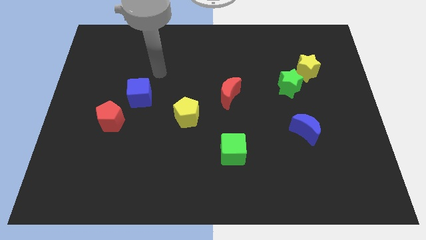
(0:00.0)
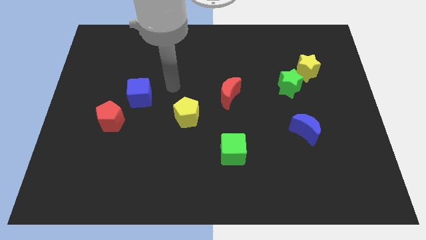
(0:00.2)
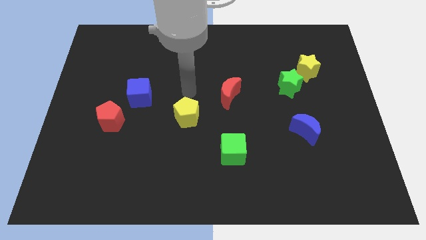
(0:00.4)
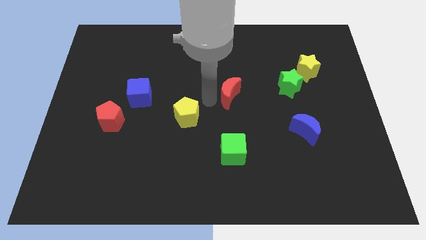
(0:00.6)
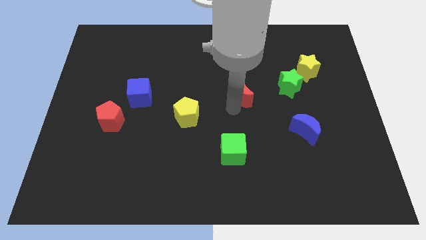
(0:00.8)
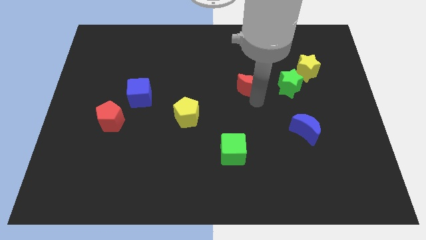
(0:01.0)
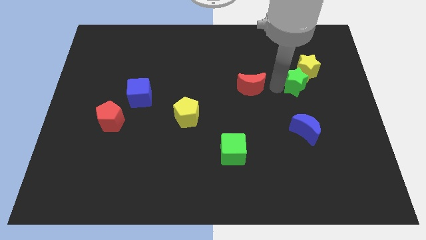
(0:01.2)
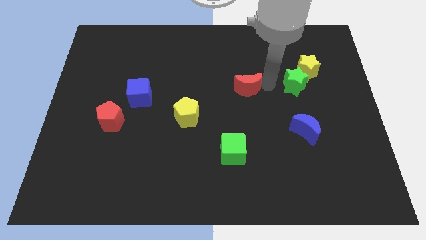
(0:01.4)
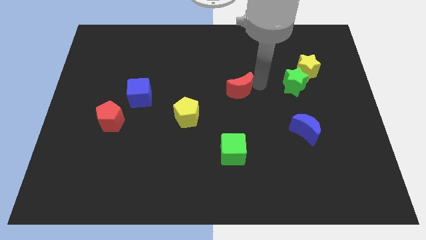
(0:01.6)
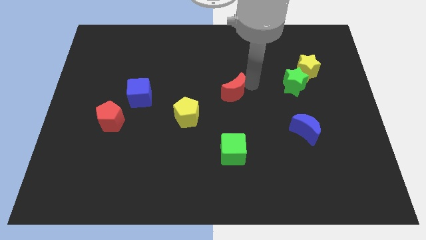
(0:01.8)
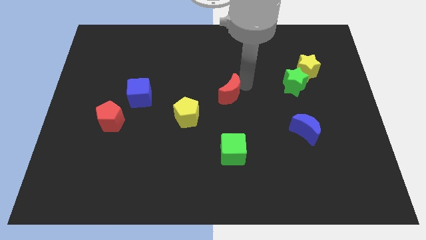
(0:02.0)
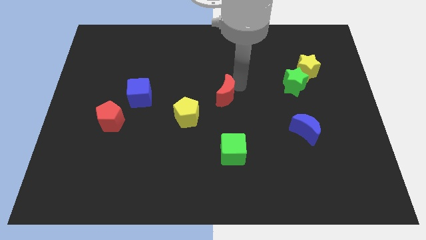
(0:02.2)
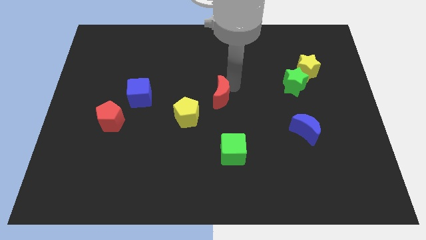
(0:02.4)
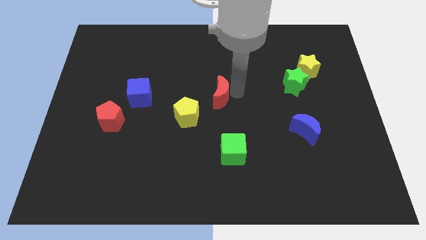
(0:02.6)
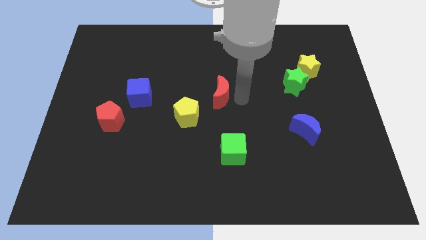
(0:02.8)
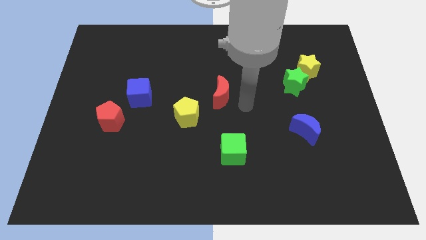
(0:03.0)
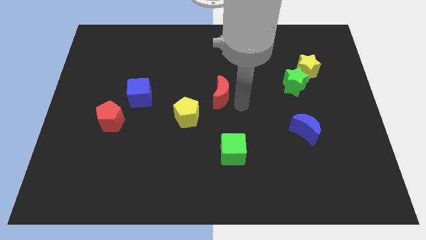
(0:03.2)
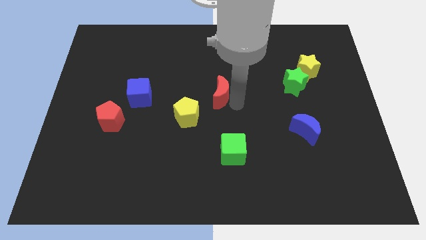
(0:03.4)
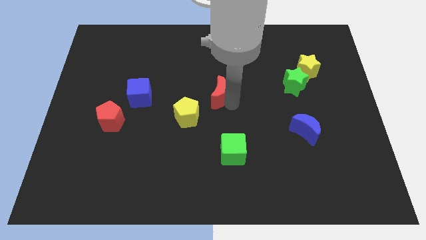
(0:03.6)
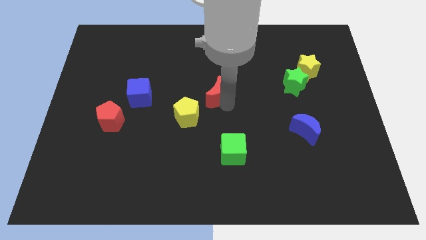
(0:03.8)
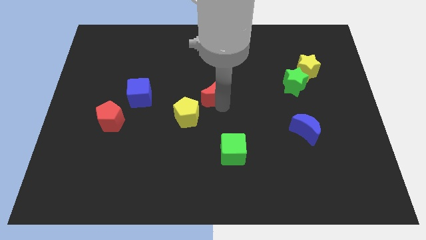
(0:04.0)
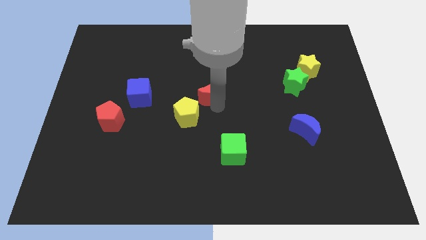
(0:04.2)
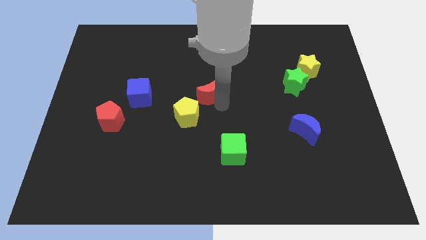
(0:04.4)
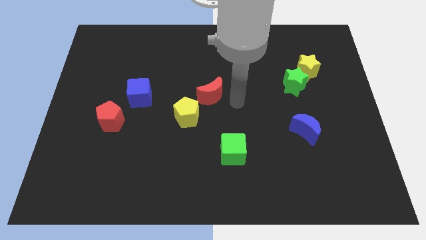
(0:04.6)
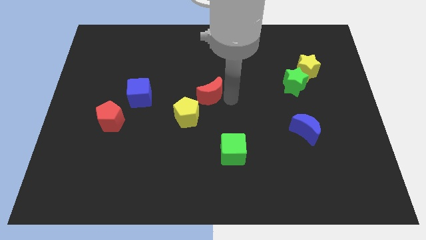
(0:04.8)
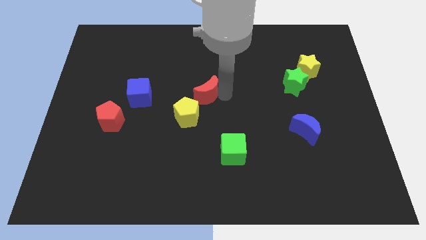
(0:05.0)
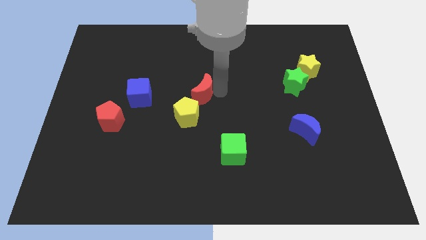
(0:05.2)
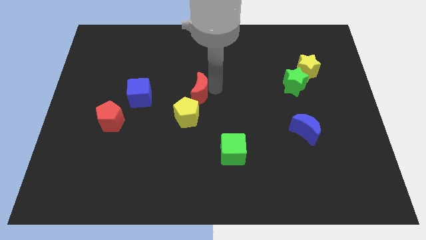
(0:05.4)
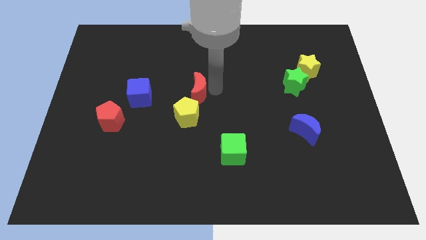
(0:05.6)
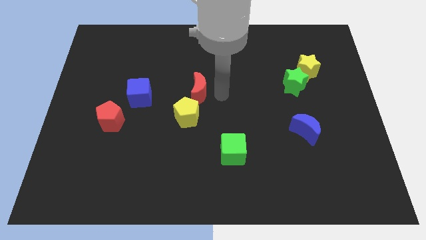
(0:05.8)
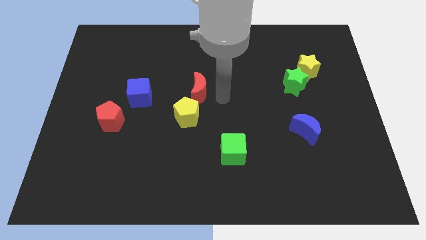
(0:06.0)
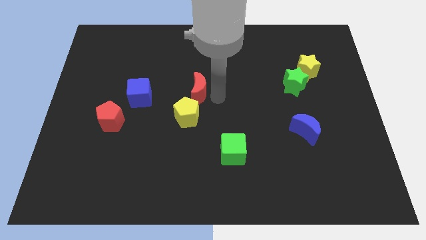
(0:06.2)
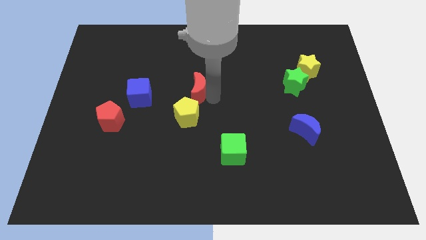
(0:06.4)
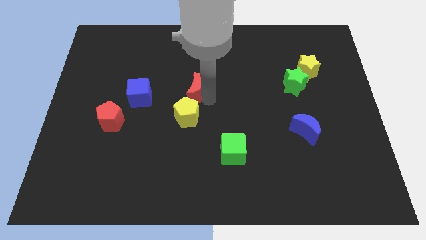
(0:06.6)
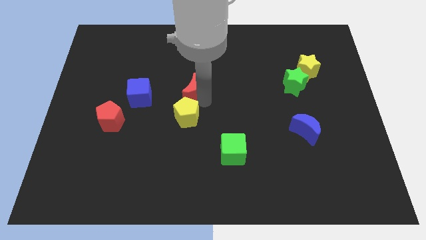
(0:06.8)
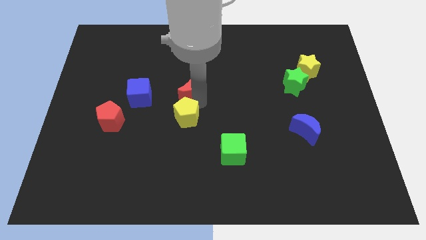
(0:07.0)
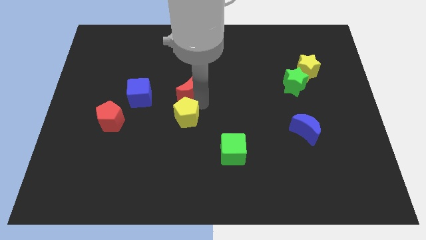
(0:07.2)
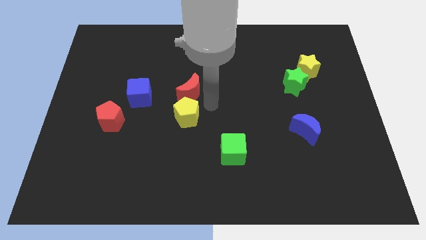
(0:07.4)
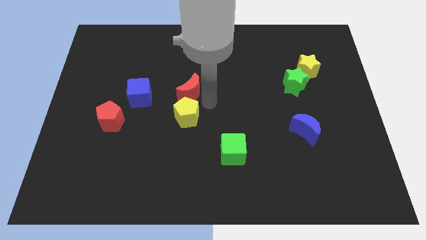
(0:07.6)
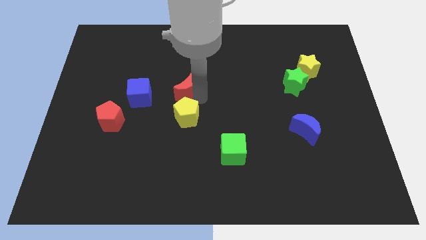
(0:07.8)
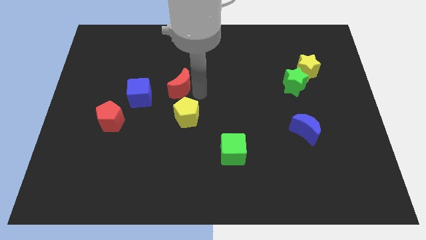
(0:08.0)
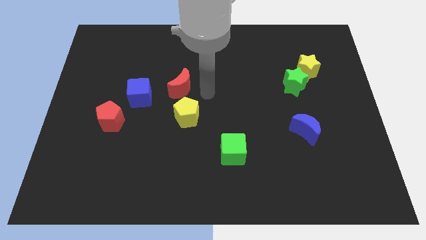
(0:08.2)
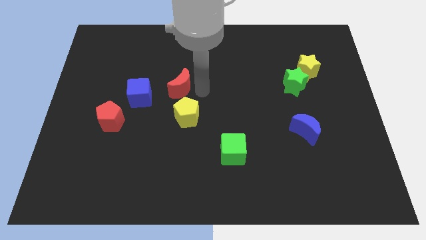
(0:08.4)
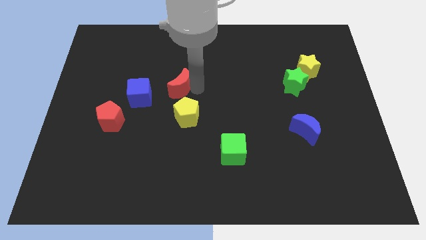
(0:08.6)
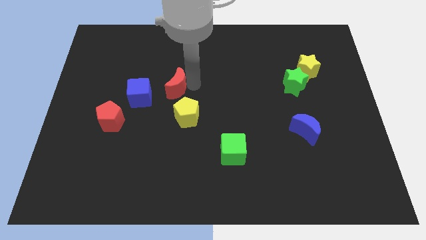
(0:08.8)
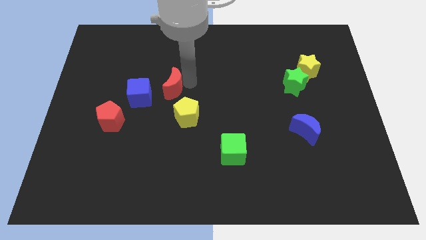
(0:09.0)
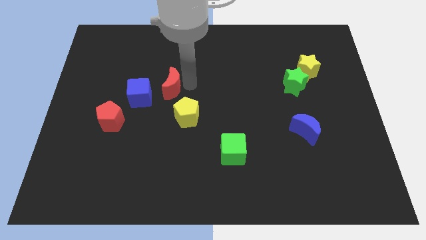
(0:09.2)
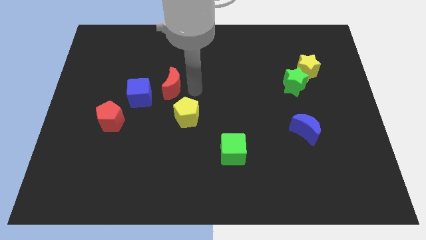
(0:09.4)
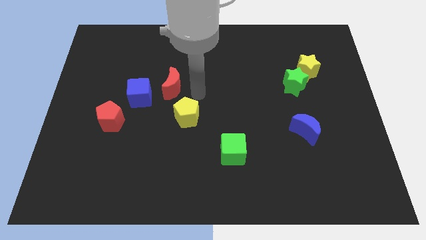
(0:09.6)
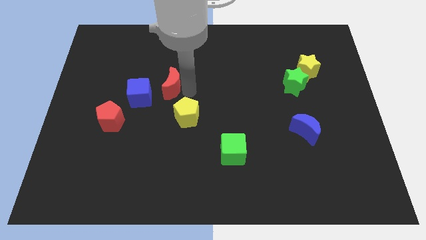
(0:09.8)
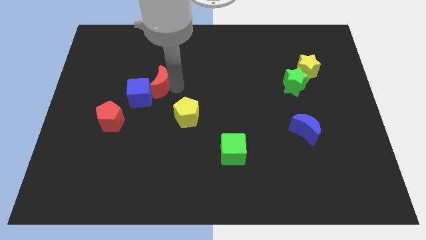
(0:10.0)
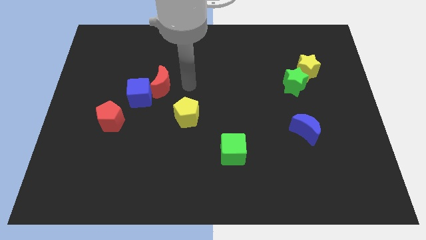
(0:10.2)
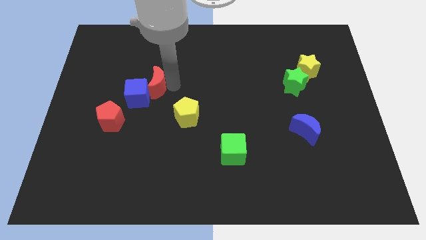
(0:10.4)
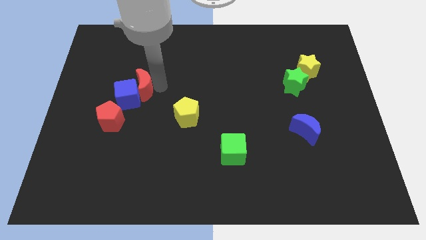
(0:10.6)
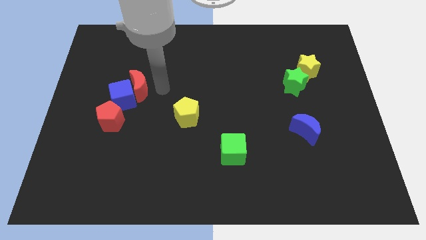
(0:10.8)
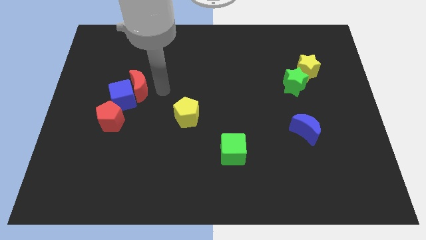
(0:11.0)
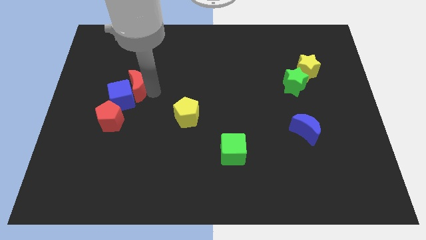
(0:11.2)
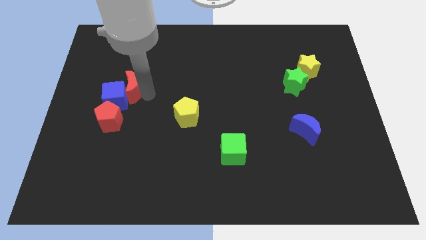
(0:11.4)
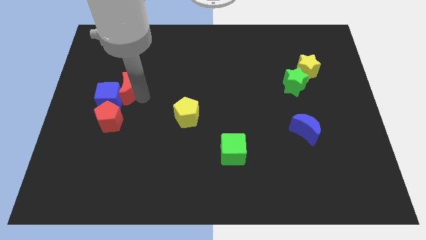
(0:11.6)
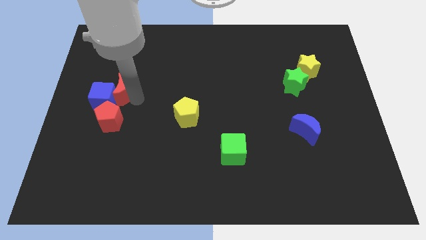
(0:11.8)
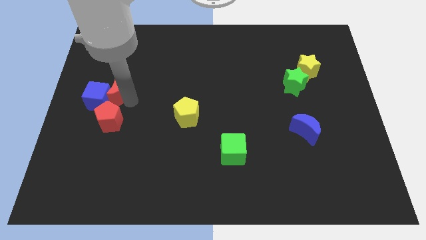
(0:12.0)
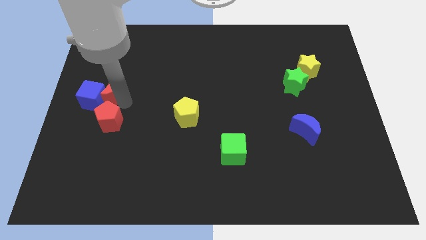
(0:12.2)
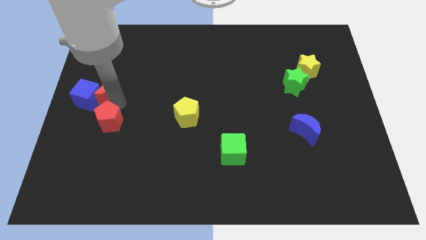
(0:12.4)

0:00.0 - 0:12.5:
put the red moon to the left side

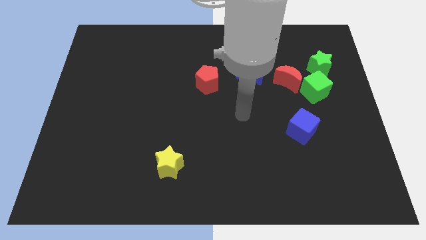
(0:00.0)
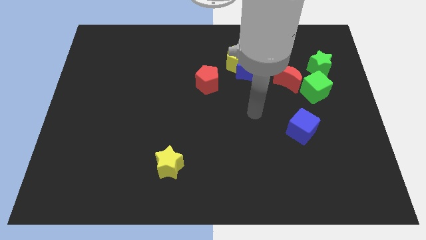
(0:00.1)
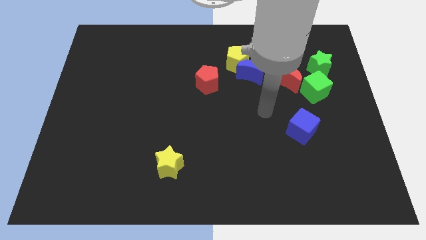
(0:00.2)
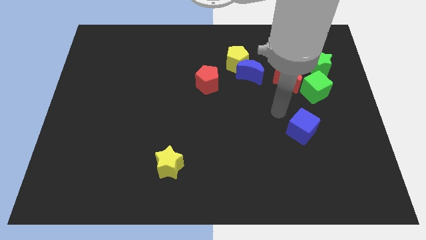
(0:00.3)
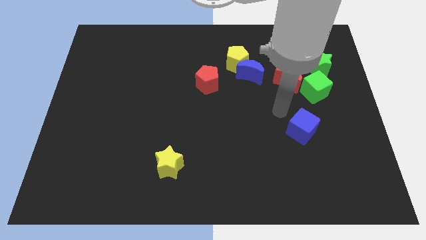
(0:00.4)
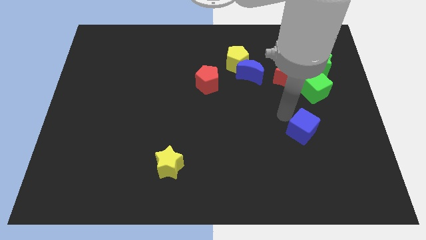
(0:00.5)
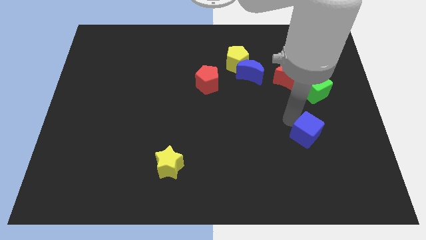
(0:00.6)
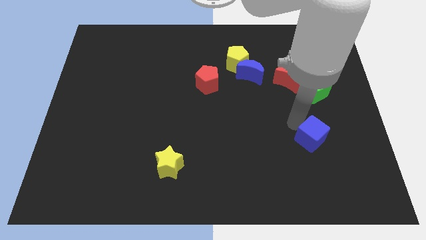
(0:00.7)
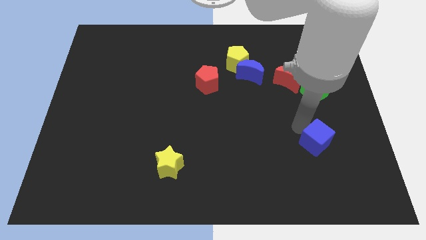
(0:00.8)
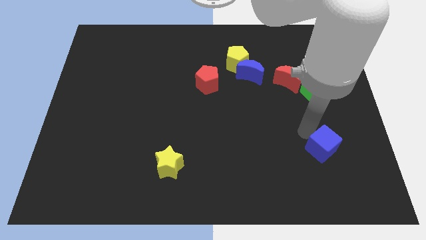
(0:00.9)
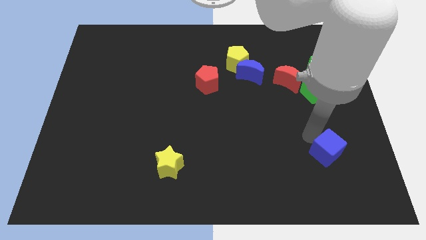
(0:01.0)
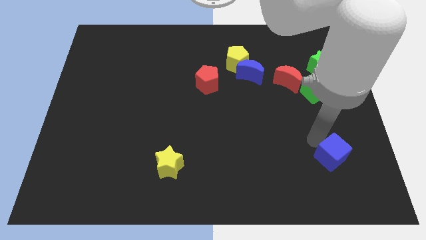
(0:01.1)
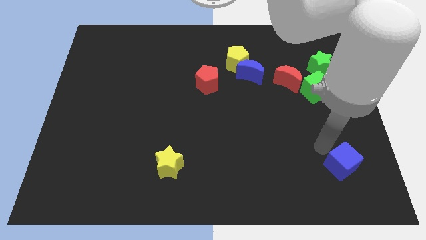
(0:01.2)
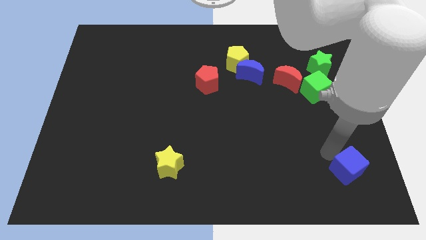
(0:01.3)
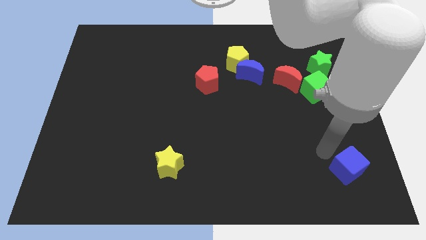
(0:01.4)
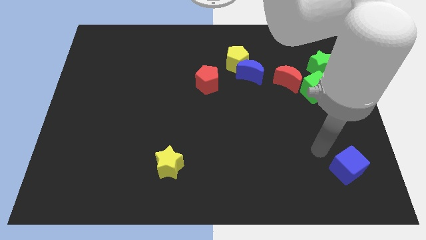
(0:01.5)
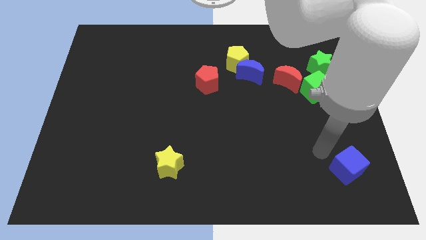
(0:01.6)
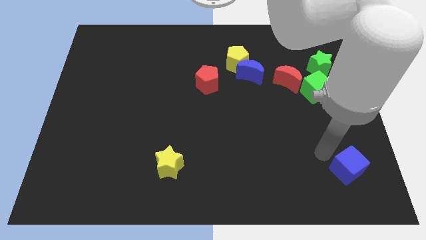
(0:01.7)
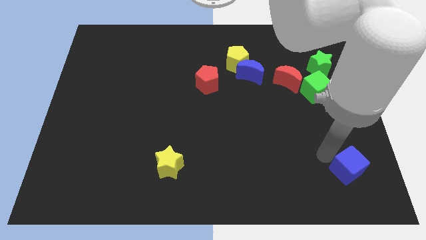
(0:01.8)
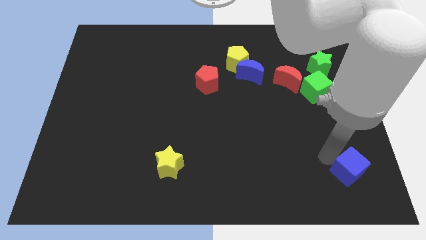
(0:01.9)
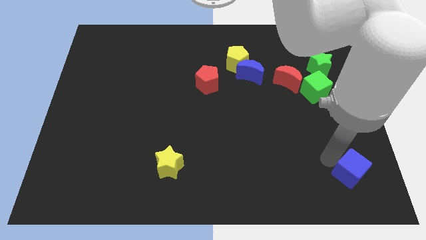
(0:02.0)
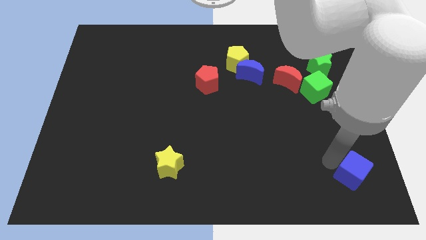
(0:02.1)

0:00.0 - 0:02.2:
put the blue cube to the bottom right of the board
